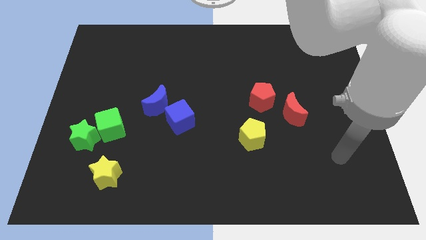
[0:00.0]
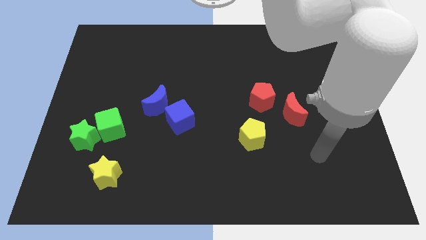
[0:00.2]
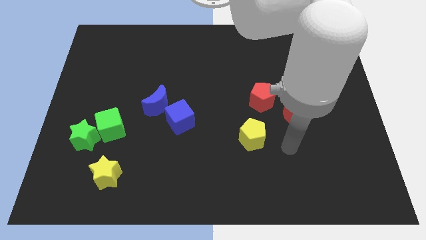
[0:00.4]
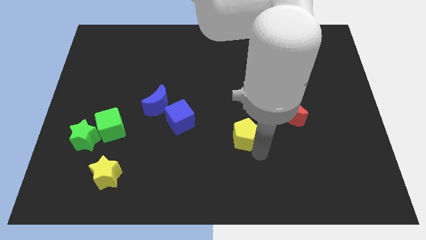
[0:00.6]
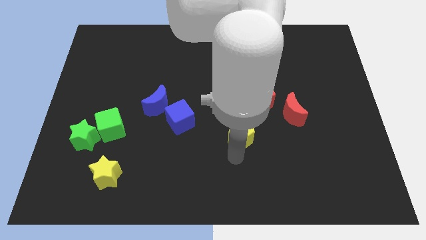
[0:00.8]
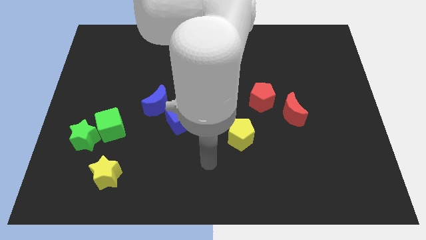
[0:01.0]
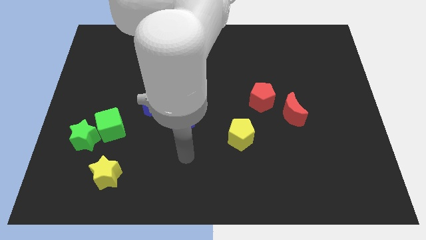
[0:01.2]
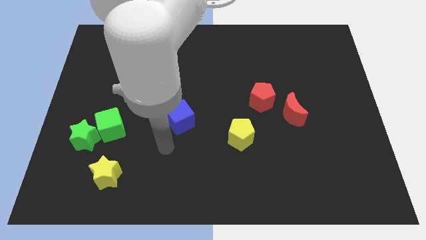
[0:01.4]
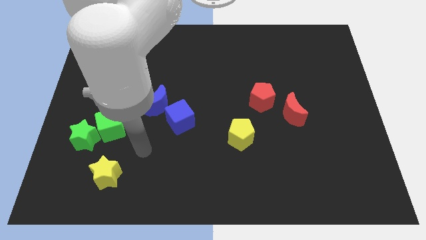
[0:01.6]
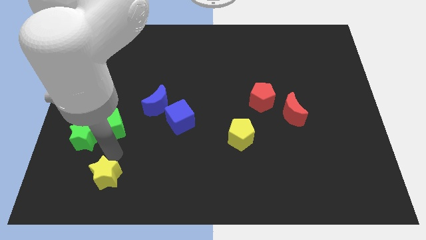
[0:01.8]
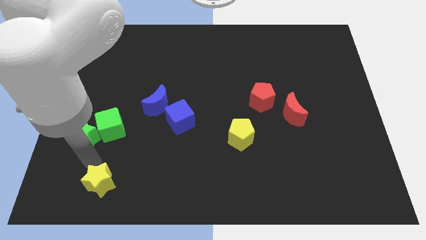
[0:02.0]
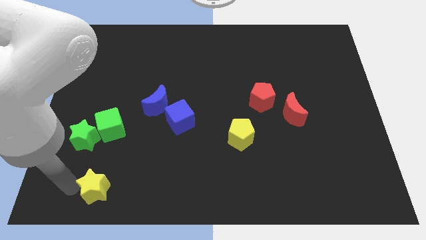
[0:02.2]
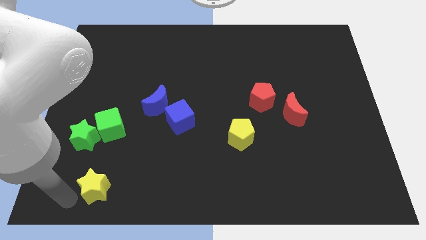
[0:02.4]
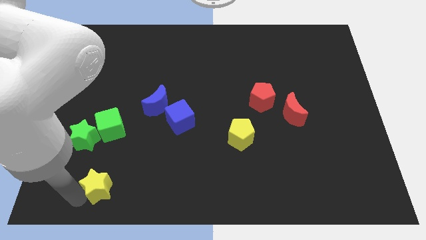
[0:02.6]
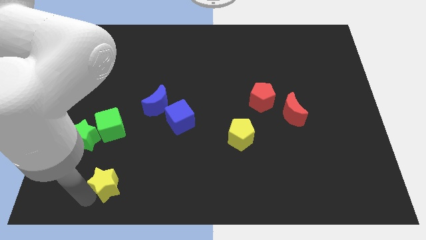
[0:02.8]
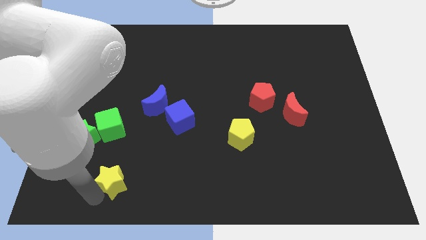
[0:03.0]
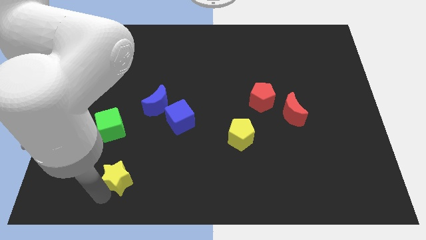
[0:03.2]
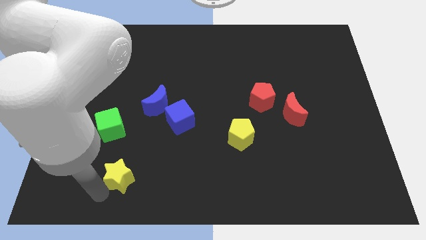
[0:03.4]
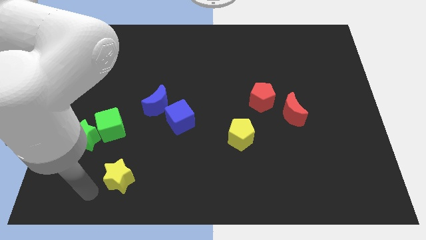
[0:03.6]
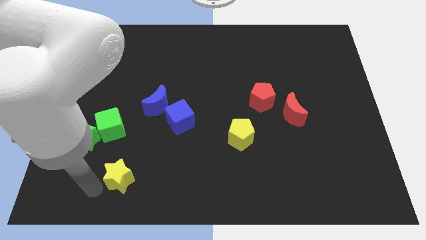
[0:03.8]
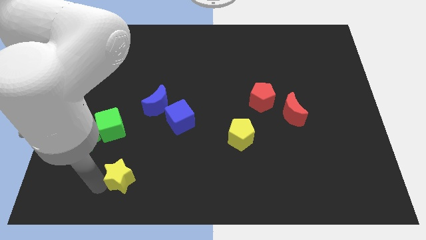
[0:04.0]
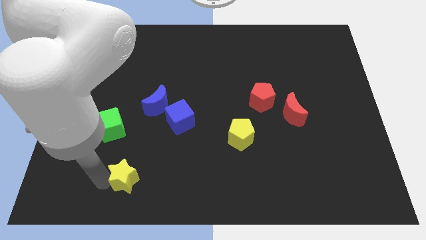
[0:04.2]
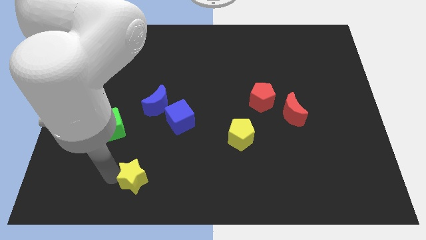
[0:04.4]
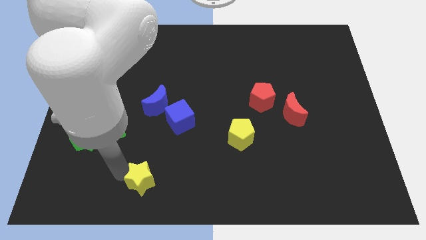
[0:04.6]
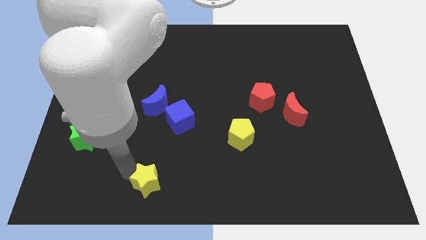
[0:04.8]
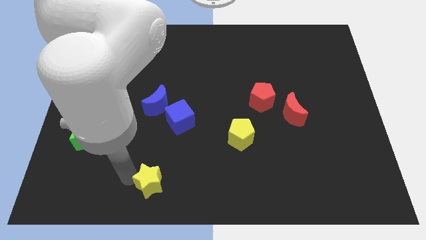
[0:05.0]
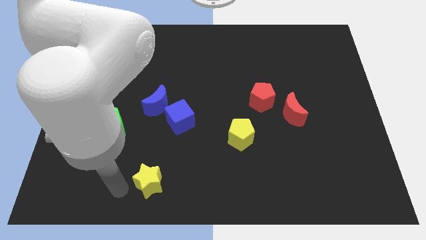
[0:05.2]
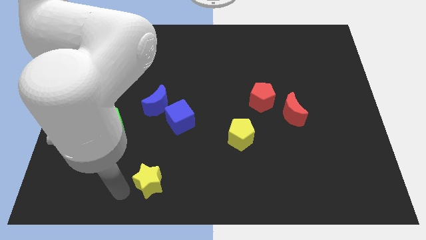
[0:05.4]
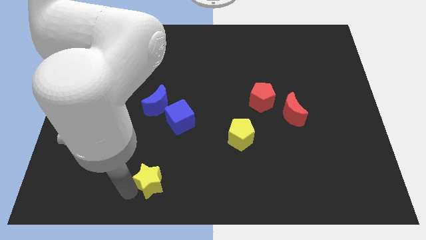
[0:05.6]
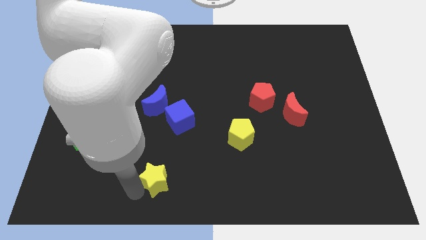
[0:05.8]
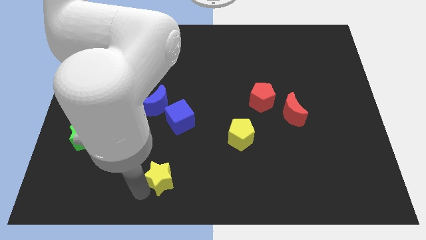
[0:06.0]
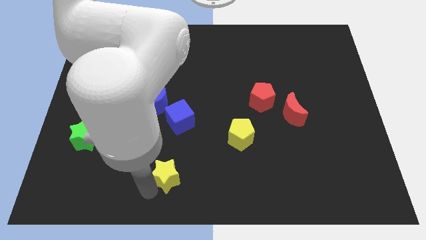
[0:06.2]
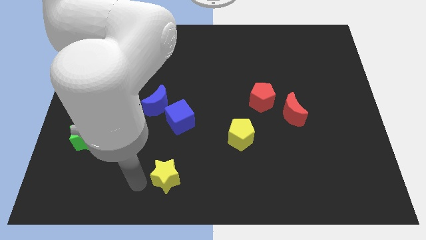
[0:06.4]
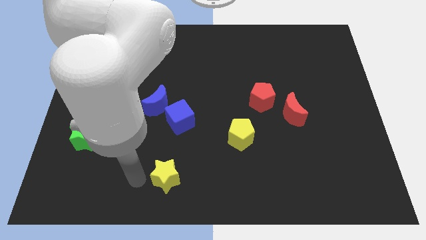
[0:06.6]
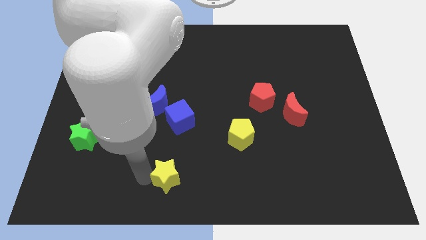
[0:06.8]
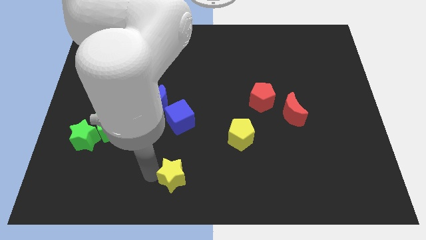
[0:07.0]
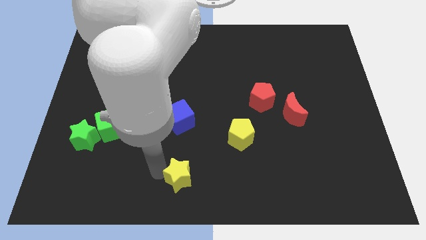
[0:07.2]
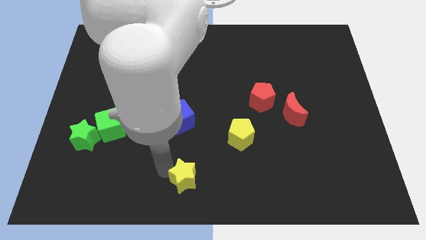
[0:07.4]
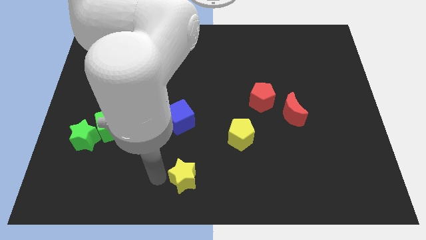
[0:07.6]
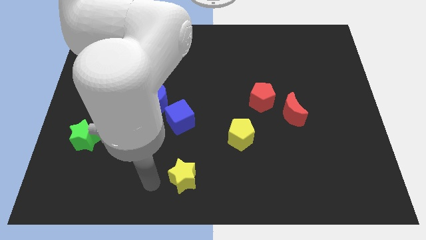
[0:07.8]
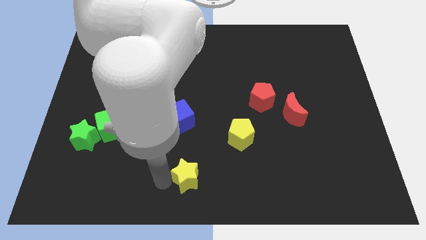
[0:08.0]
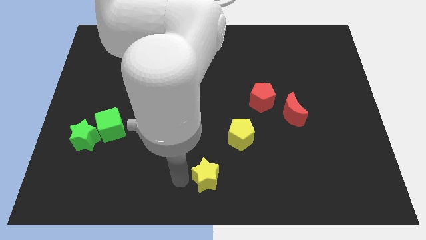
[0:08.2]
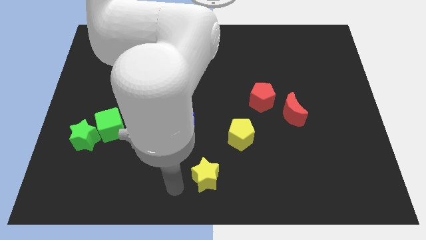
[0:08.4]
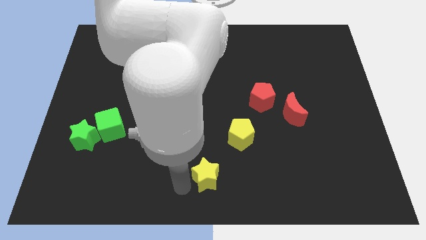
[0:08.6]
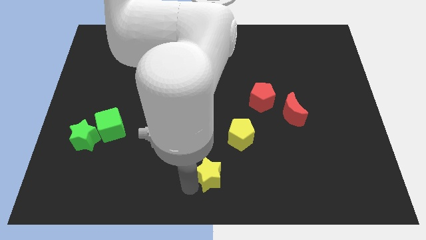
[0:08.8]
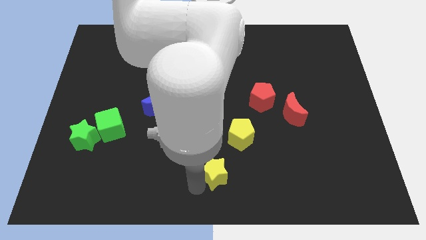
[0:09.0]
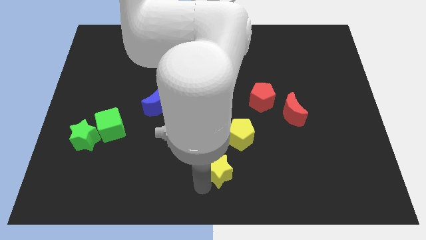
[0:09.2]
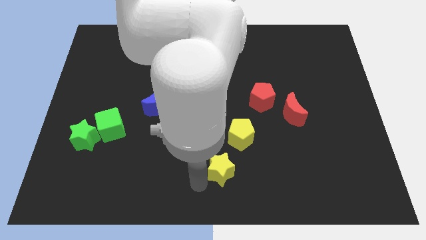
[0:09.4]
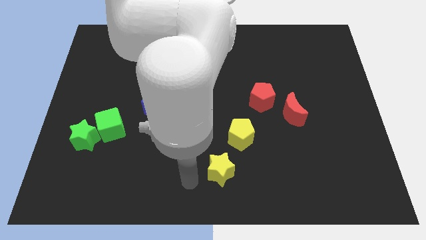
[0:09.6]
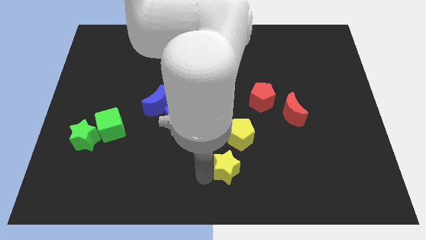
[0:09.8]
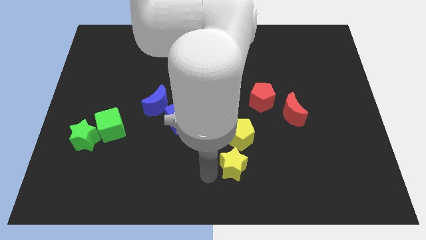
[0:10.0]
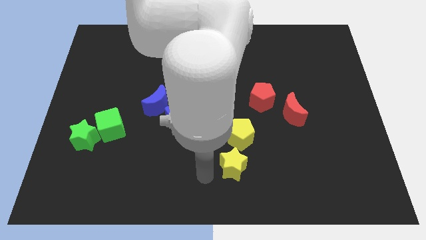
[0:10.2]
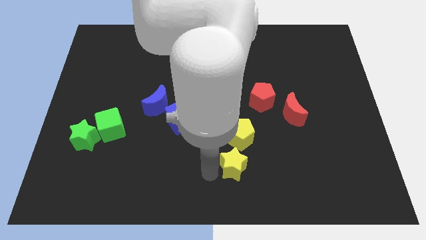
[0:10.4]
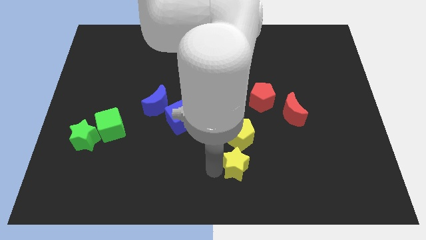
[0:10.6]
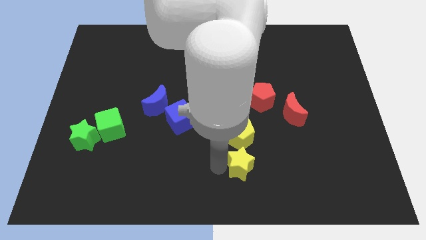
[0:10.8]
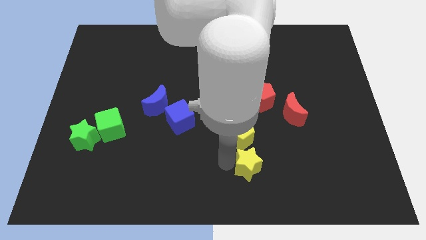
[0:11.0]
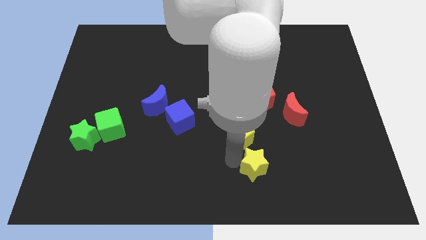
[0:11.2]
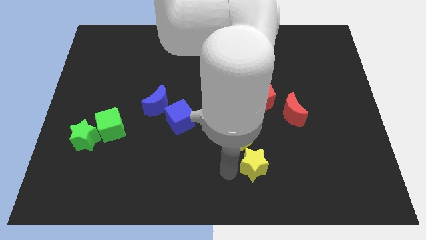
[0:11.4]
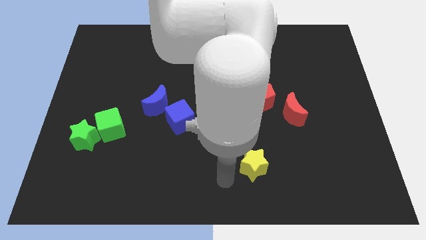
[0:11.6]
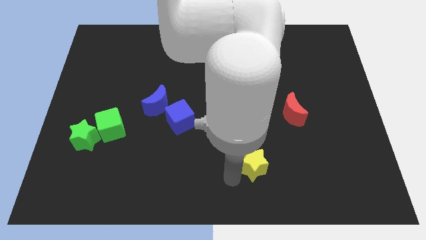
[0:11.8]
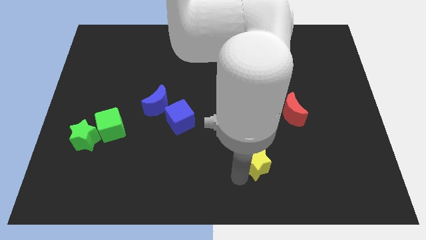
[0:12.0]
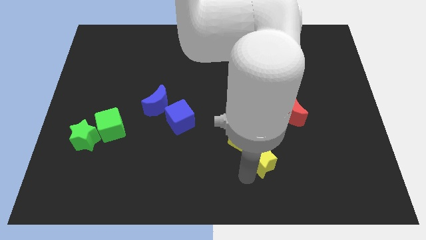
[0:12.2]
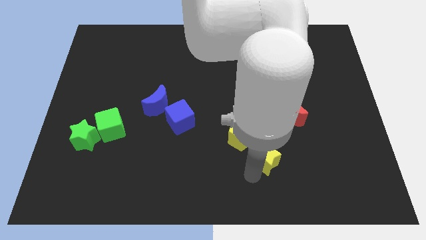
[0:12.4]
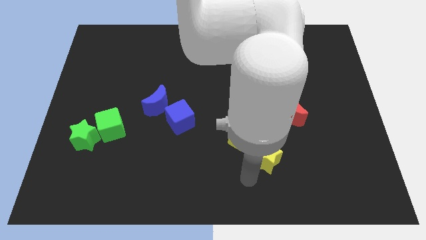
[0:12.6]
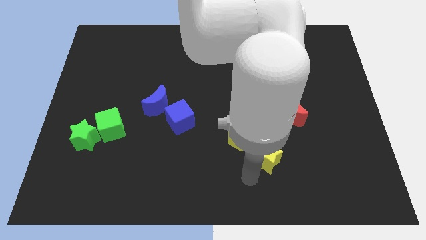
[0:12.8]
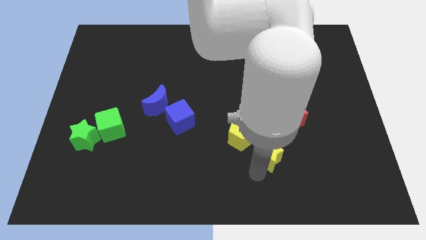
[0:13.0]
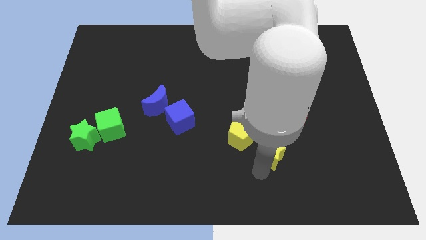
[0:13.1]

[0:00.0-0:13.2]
move the yellow star to the right of the yellow pentagon
